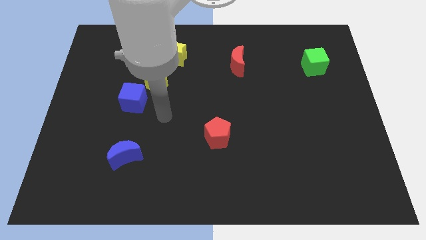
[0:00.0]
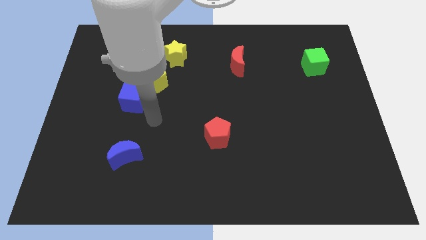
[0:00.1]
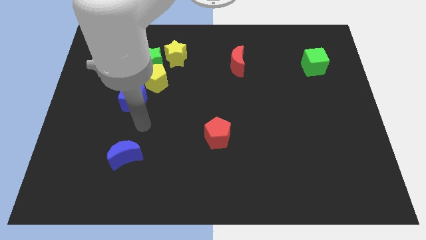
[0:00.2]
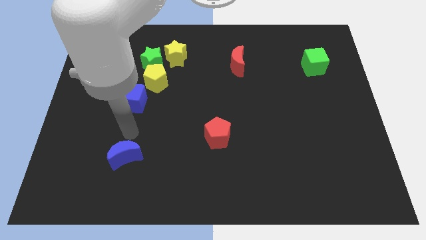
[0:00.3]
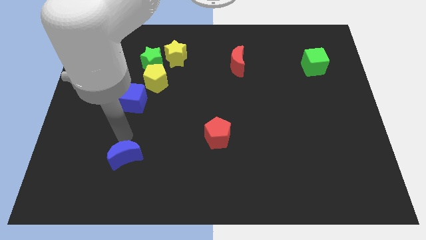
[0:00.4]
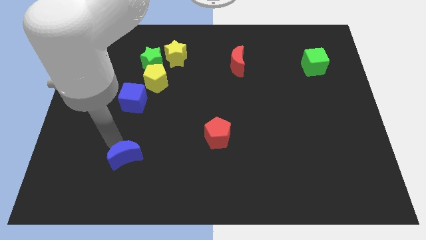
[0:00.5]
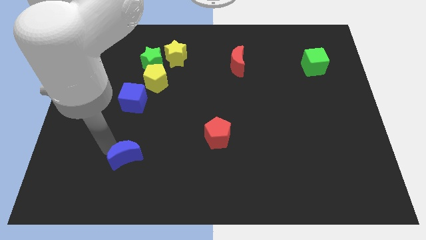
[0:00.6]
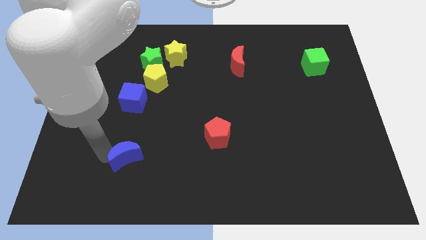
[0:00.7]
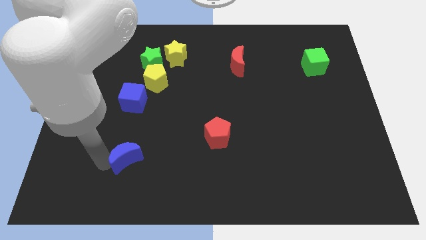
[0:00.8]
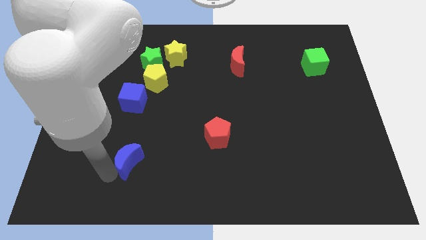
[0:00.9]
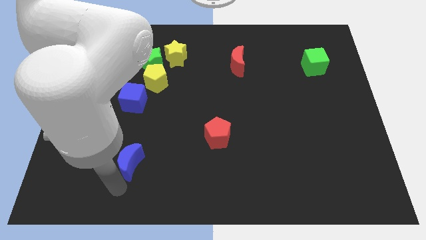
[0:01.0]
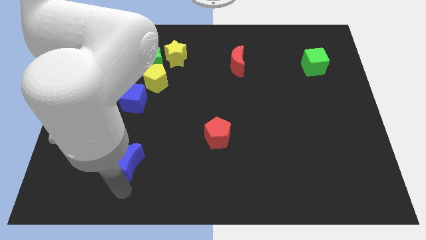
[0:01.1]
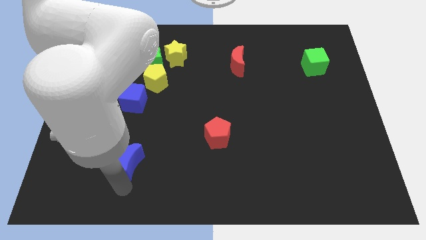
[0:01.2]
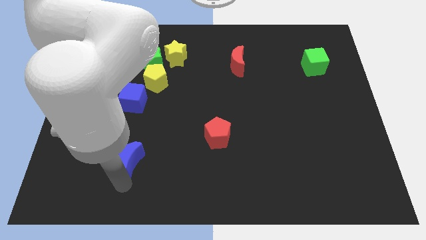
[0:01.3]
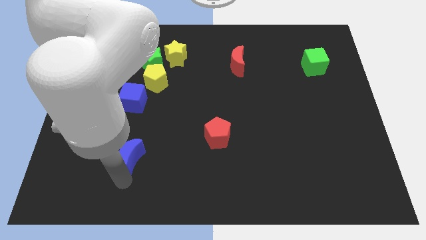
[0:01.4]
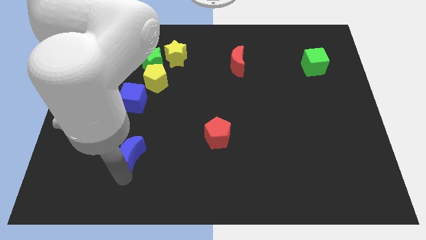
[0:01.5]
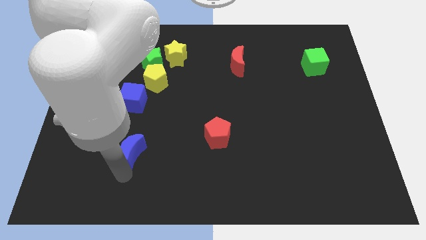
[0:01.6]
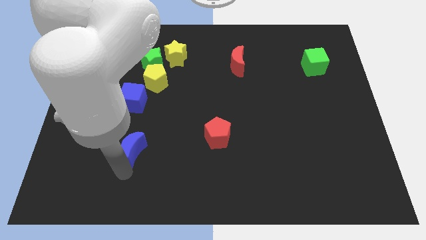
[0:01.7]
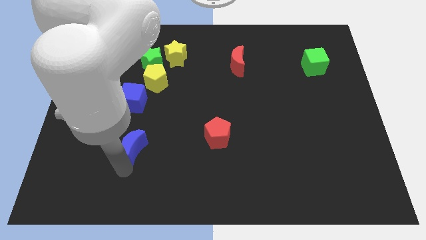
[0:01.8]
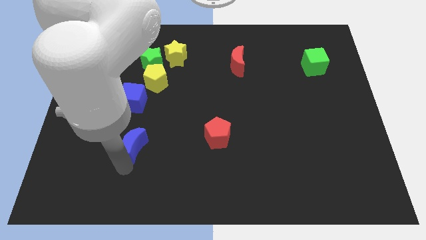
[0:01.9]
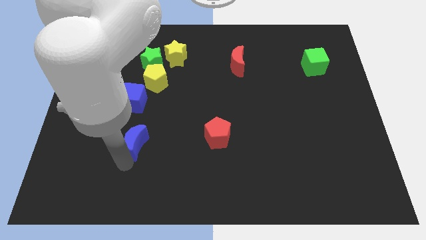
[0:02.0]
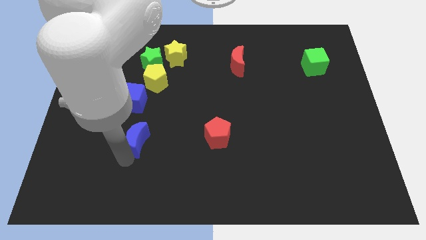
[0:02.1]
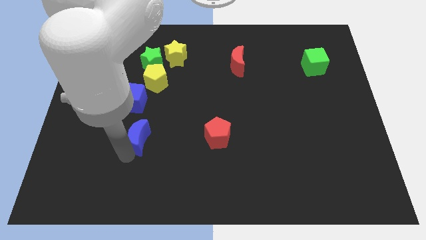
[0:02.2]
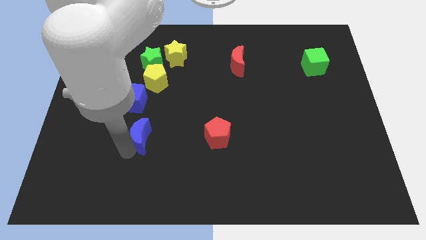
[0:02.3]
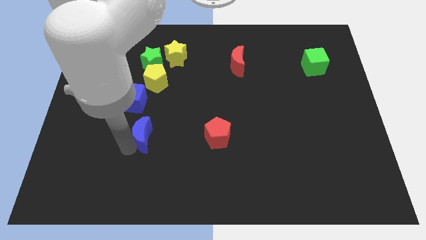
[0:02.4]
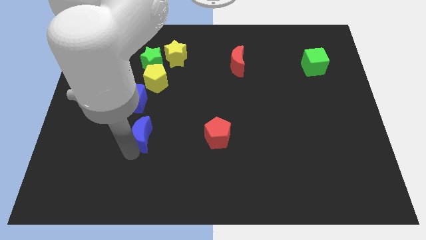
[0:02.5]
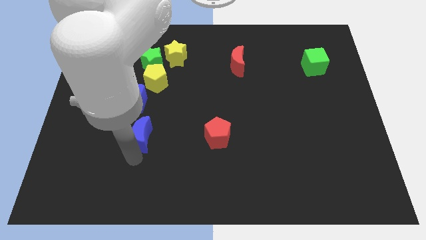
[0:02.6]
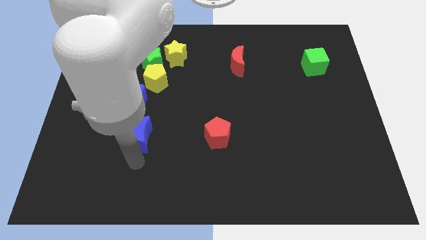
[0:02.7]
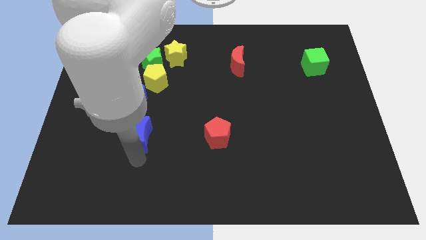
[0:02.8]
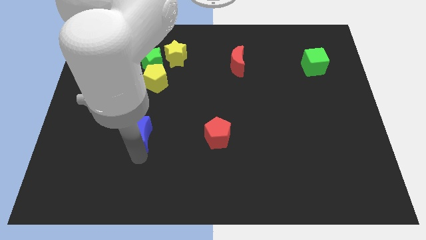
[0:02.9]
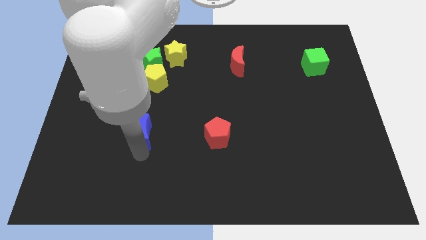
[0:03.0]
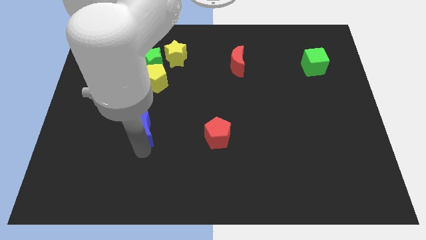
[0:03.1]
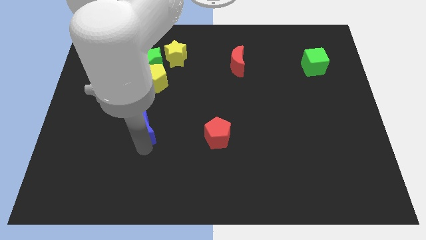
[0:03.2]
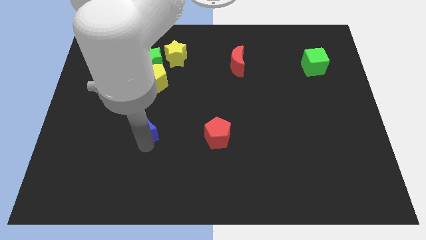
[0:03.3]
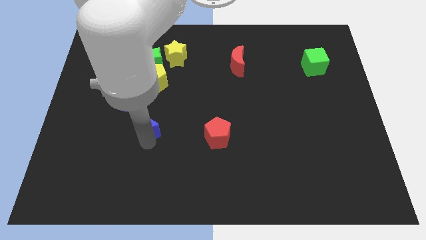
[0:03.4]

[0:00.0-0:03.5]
push the blue moon up somewhat

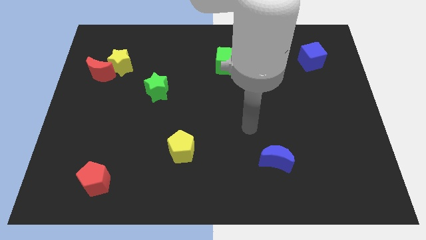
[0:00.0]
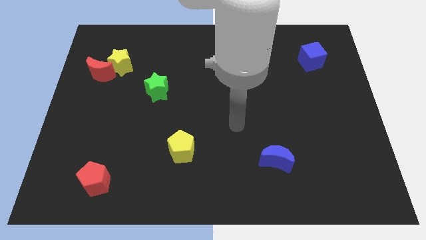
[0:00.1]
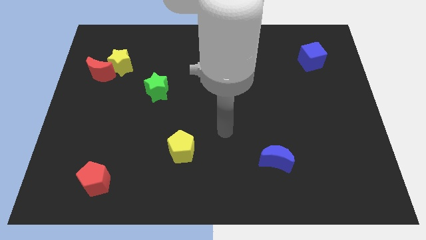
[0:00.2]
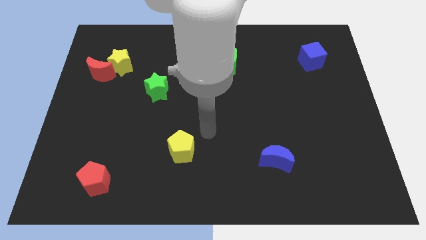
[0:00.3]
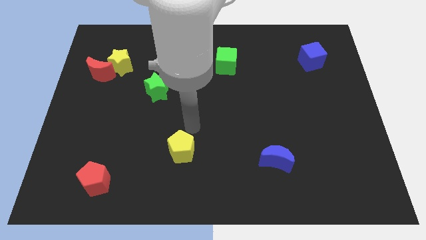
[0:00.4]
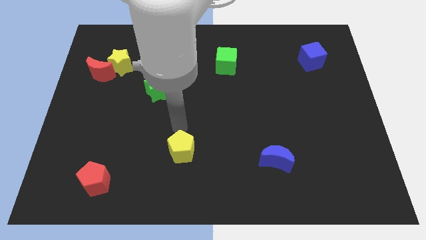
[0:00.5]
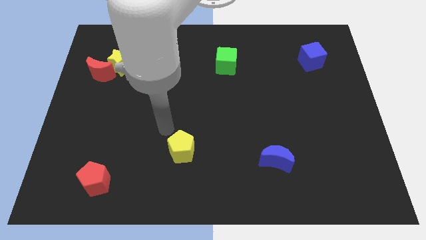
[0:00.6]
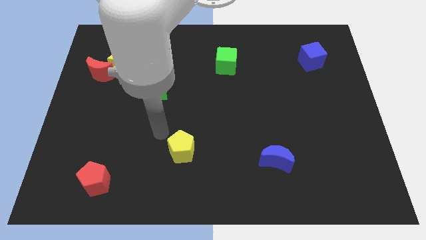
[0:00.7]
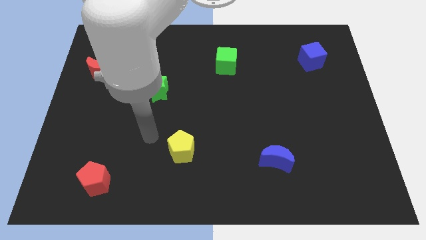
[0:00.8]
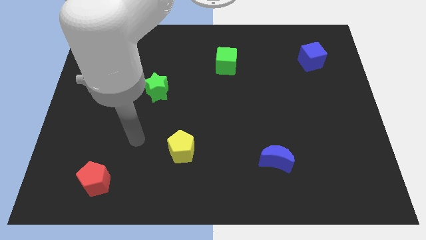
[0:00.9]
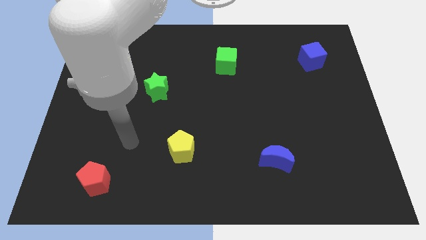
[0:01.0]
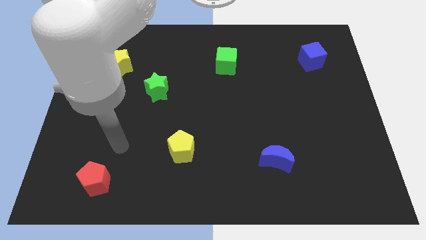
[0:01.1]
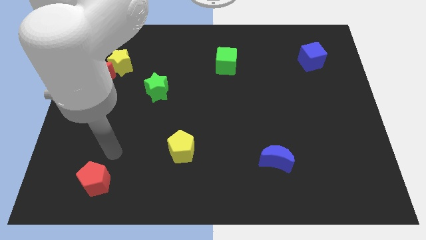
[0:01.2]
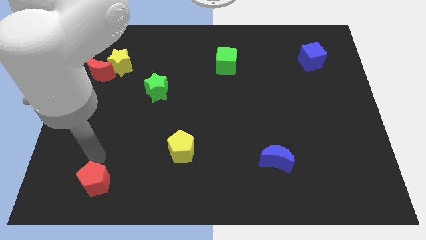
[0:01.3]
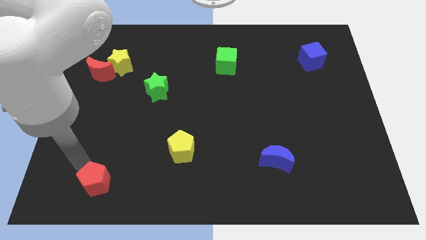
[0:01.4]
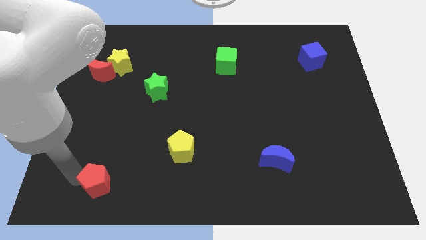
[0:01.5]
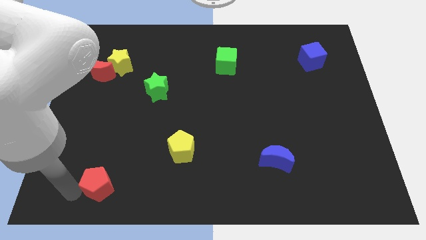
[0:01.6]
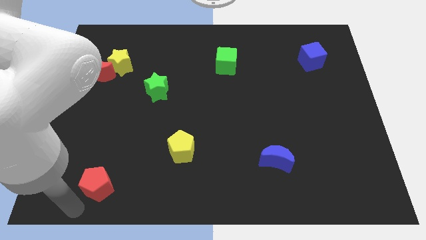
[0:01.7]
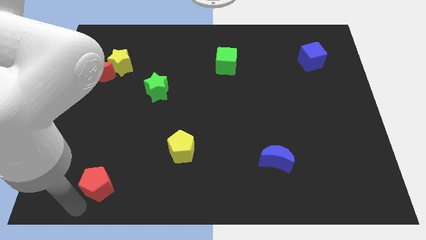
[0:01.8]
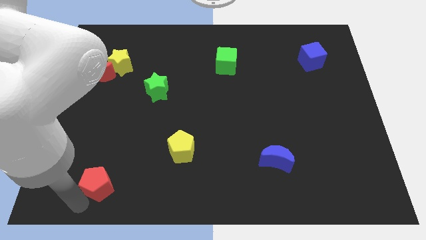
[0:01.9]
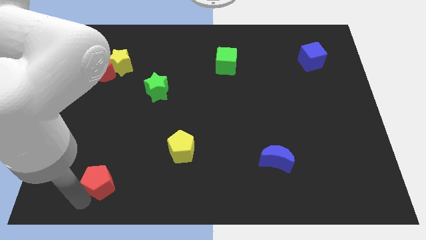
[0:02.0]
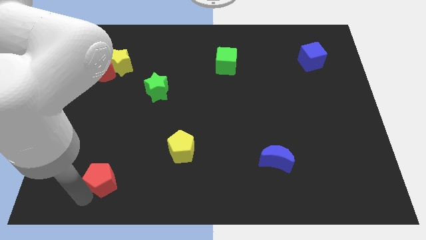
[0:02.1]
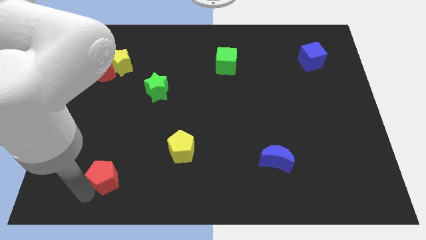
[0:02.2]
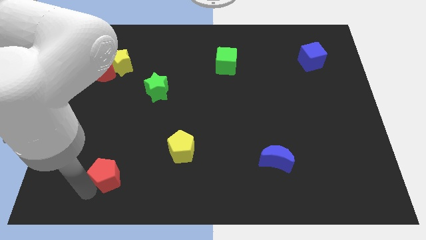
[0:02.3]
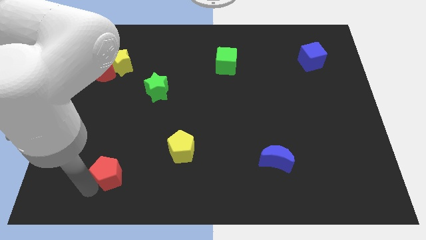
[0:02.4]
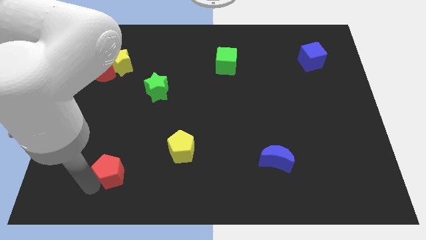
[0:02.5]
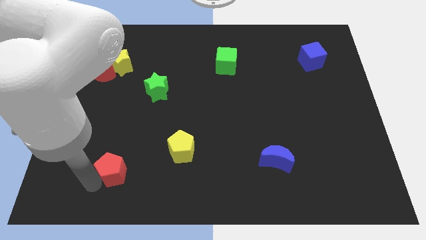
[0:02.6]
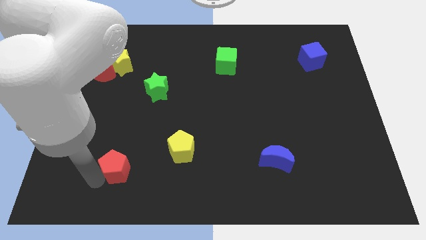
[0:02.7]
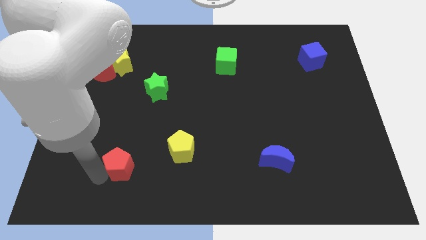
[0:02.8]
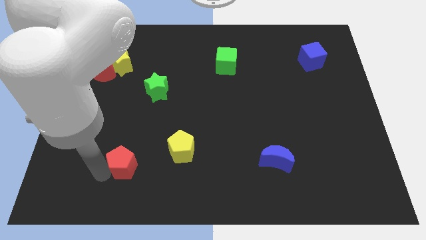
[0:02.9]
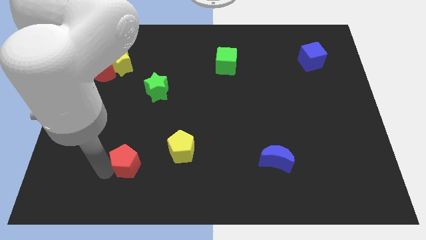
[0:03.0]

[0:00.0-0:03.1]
slide the red pentagon somewhat upwards and to the right

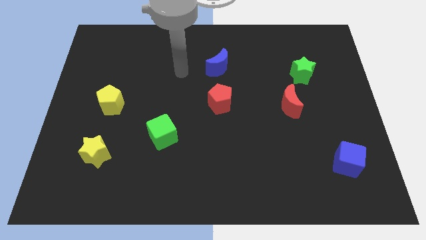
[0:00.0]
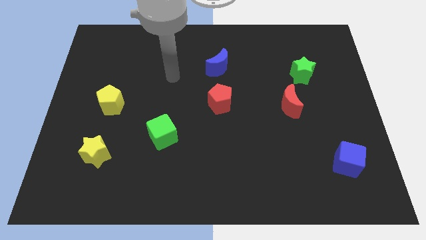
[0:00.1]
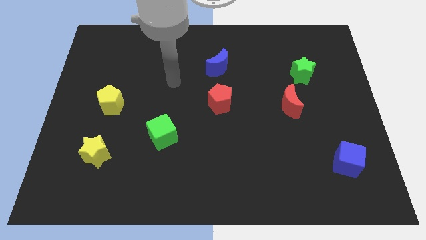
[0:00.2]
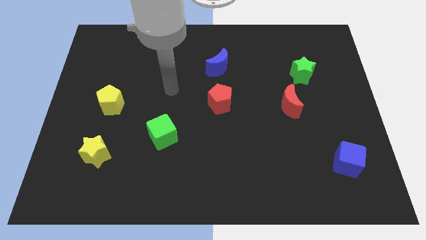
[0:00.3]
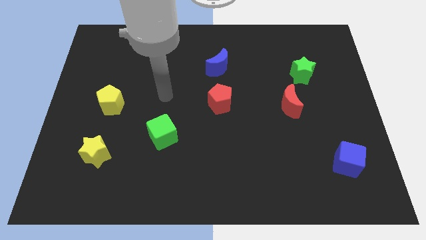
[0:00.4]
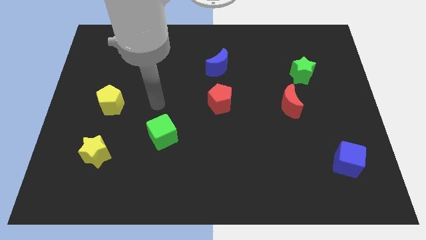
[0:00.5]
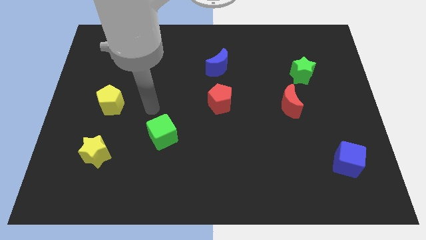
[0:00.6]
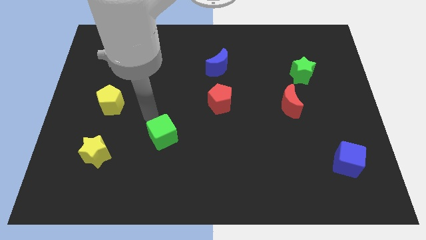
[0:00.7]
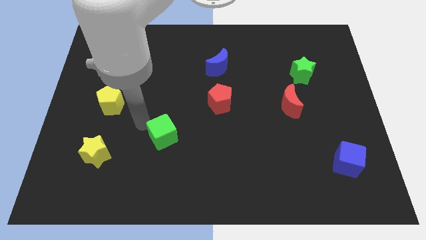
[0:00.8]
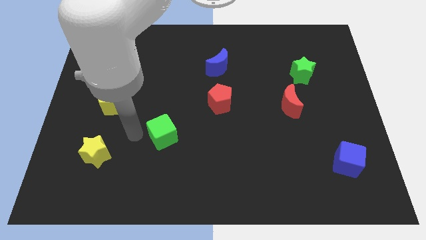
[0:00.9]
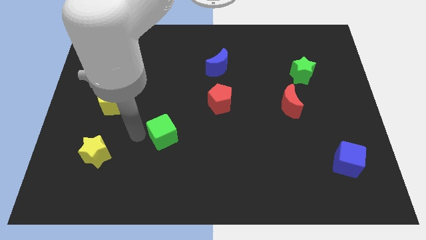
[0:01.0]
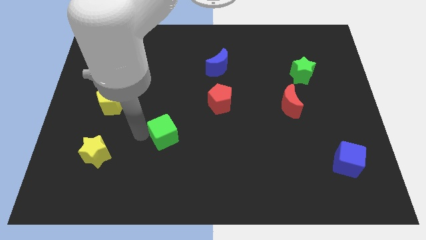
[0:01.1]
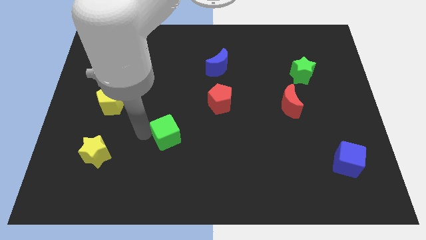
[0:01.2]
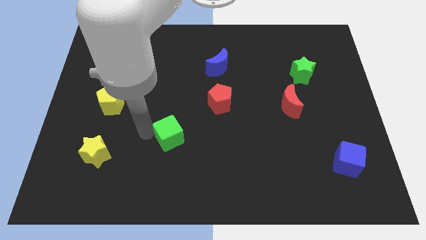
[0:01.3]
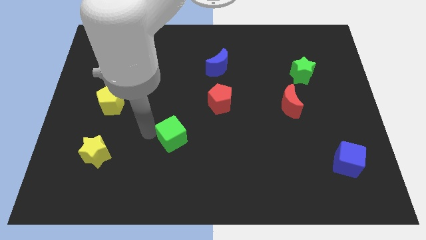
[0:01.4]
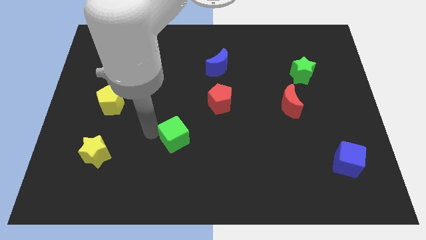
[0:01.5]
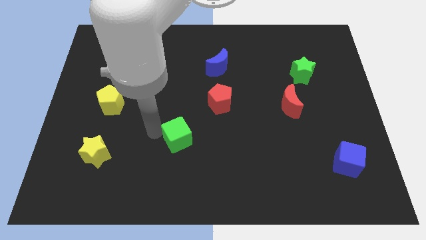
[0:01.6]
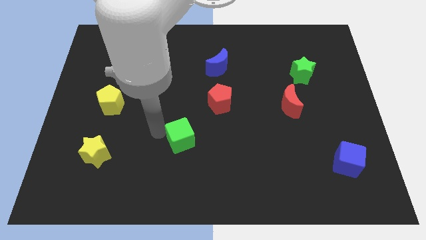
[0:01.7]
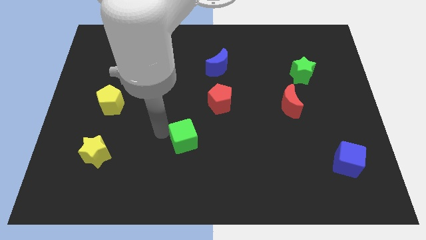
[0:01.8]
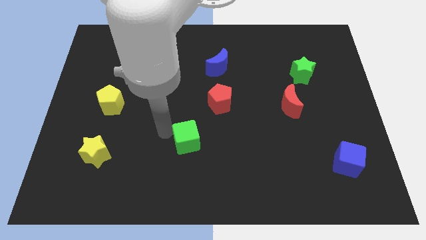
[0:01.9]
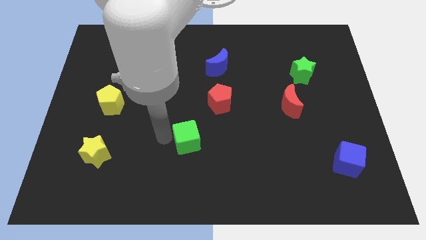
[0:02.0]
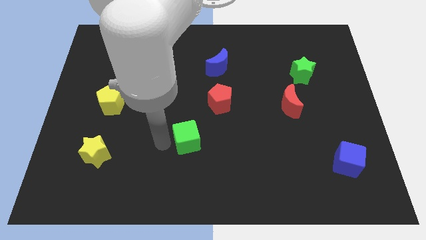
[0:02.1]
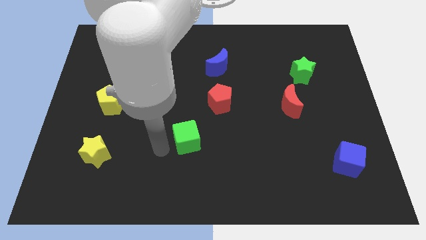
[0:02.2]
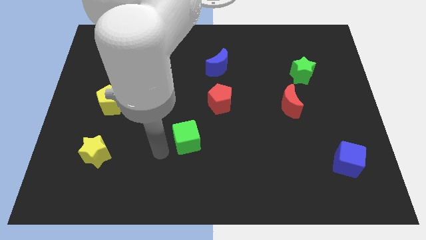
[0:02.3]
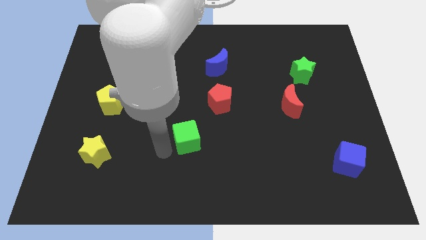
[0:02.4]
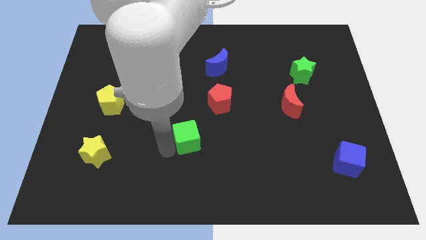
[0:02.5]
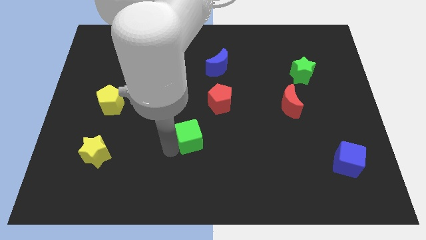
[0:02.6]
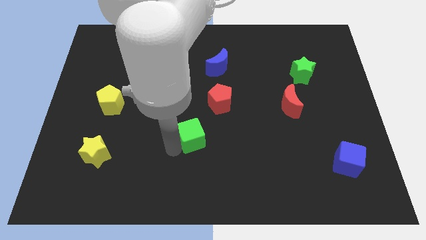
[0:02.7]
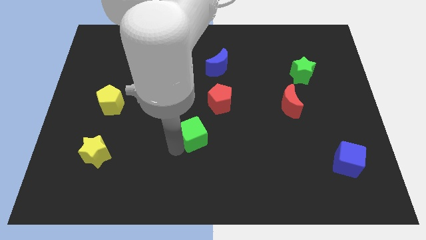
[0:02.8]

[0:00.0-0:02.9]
push the green cube a little right
